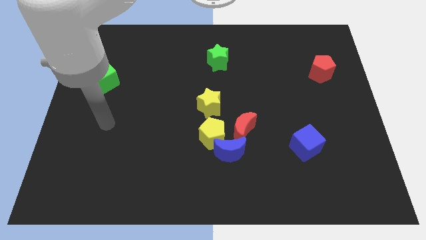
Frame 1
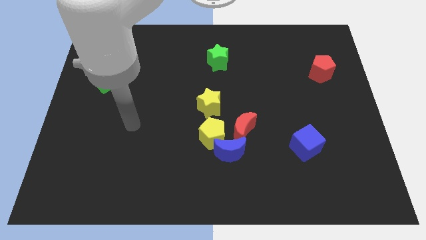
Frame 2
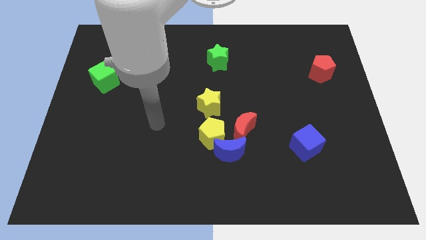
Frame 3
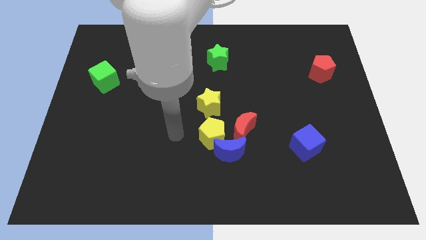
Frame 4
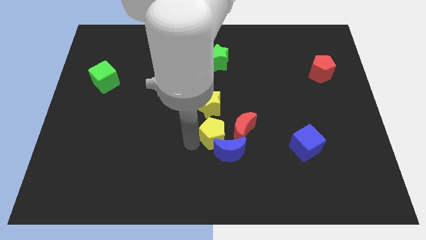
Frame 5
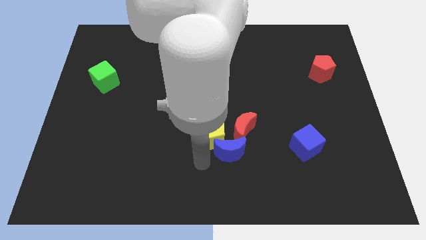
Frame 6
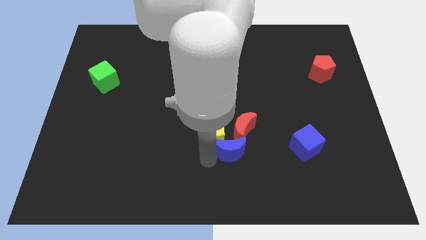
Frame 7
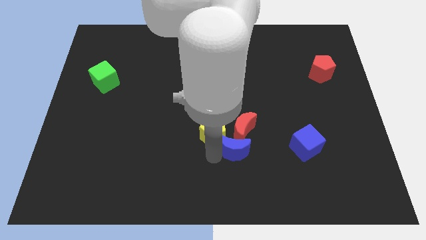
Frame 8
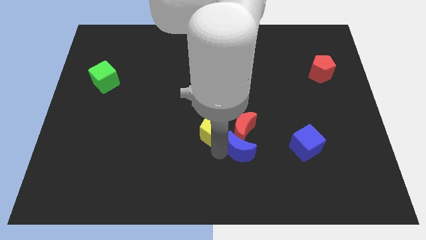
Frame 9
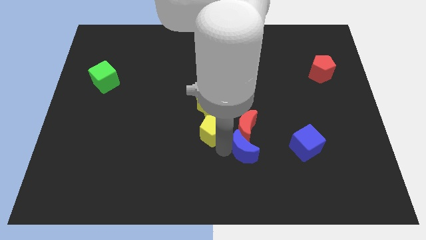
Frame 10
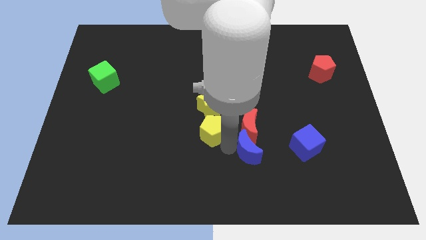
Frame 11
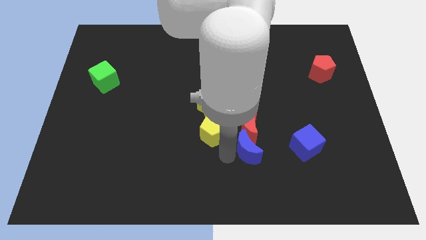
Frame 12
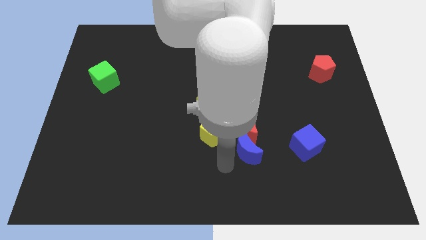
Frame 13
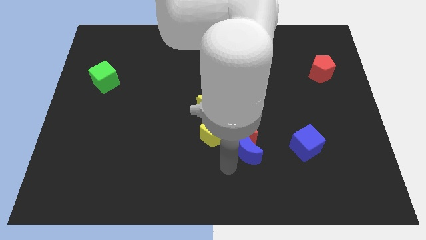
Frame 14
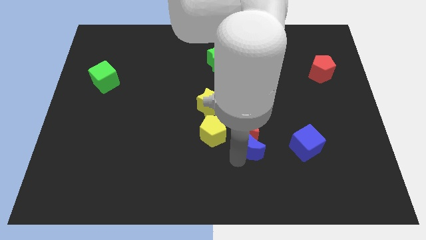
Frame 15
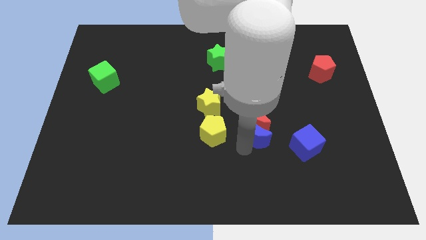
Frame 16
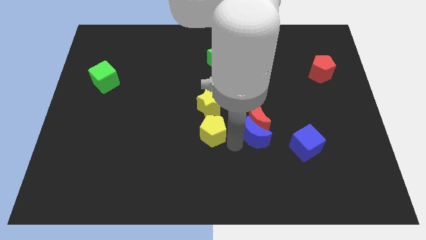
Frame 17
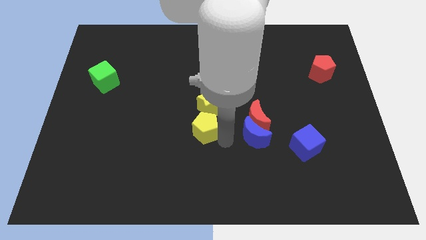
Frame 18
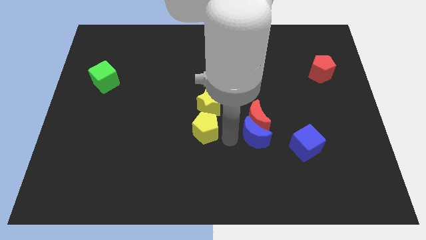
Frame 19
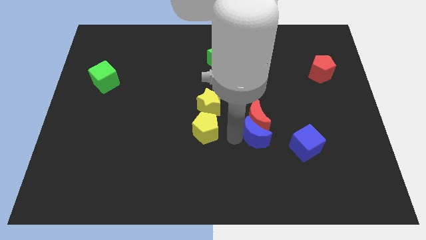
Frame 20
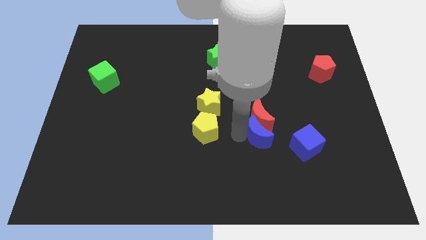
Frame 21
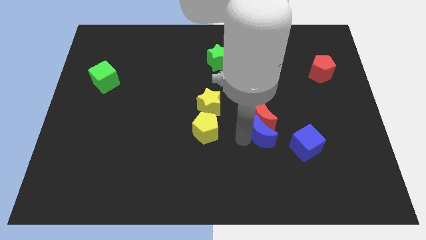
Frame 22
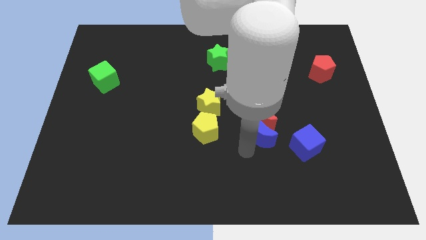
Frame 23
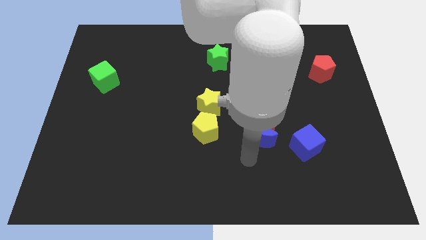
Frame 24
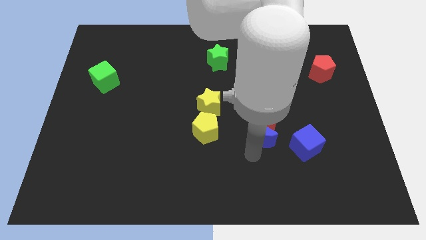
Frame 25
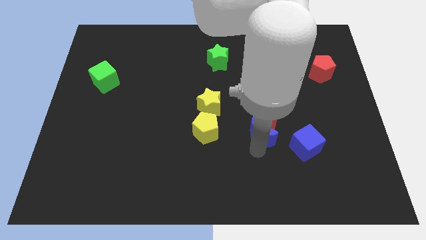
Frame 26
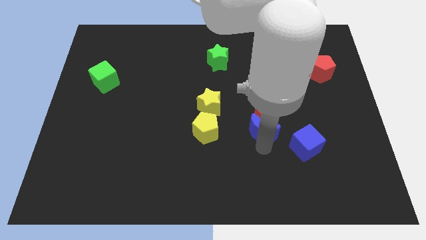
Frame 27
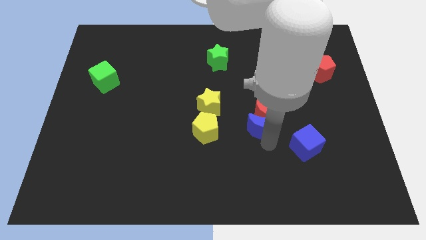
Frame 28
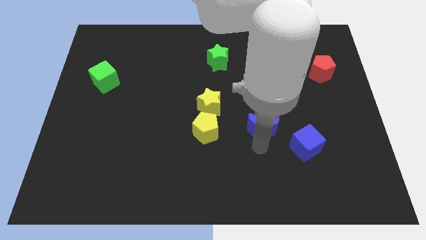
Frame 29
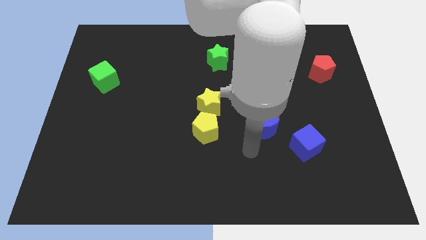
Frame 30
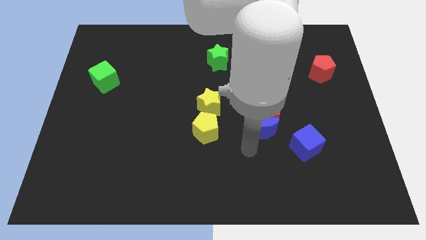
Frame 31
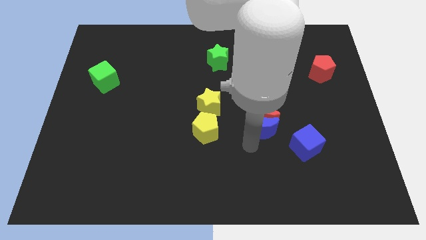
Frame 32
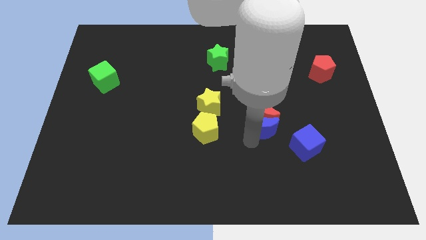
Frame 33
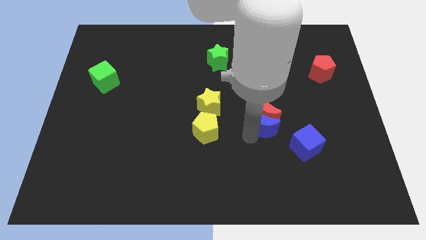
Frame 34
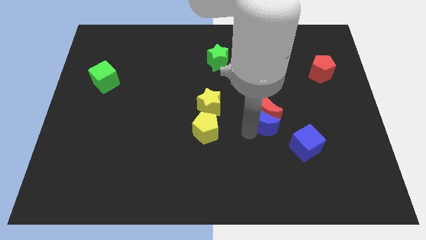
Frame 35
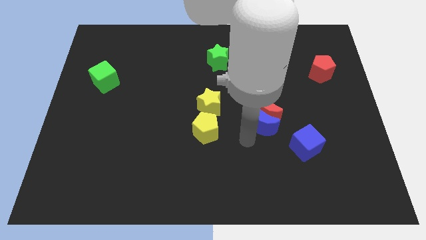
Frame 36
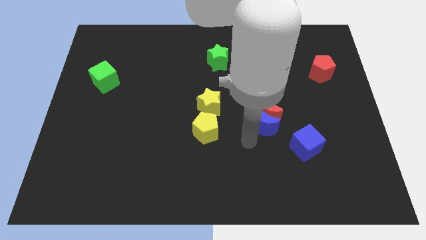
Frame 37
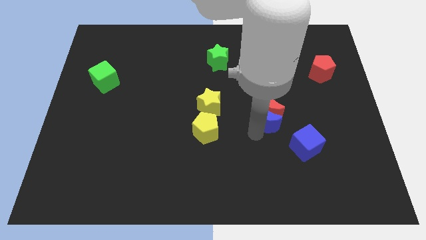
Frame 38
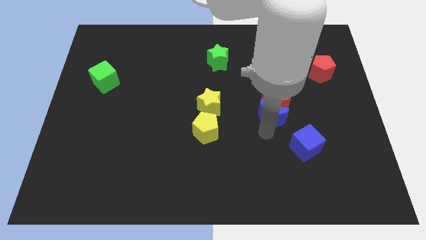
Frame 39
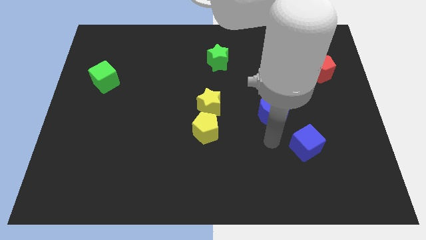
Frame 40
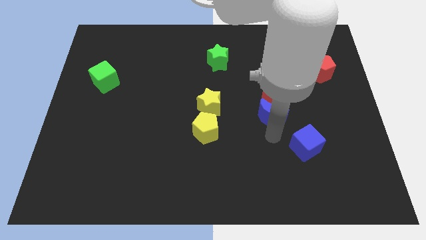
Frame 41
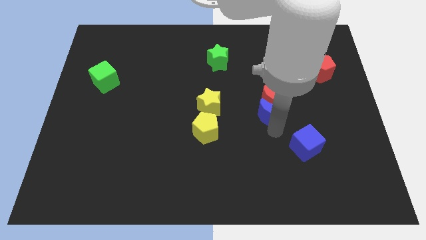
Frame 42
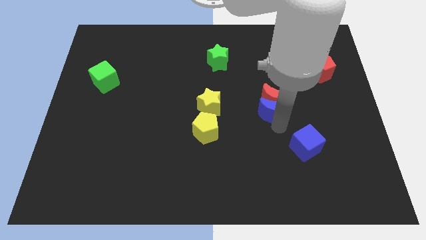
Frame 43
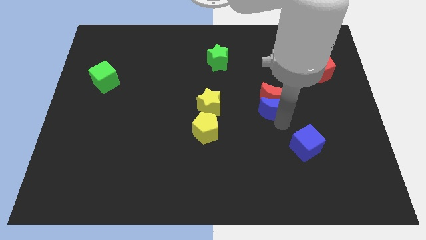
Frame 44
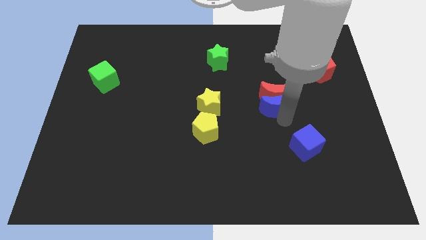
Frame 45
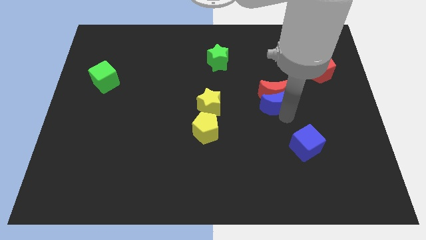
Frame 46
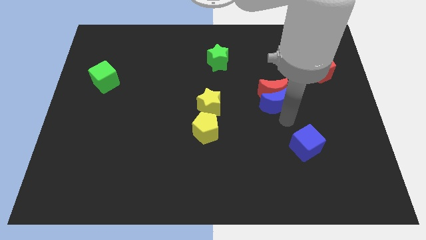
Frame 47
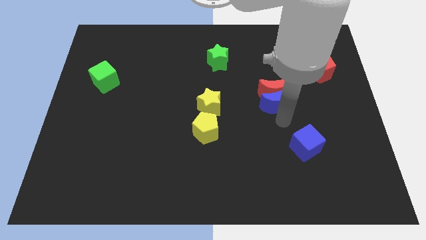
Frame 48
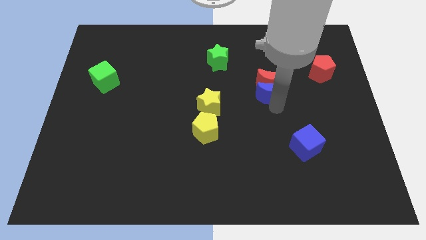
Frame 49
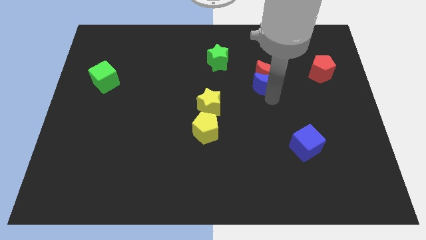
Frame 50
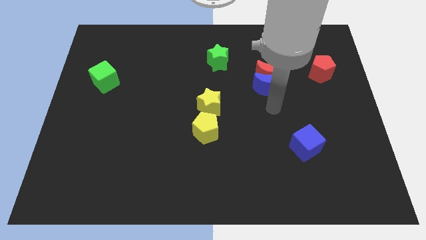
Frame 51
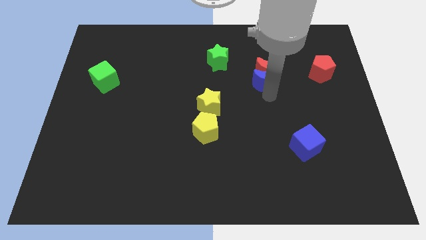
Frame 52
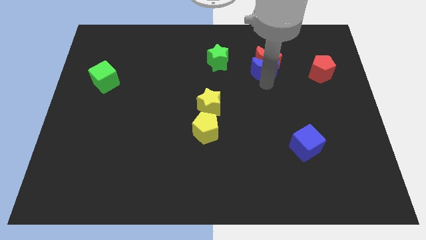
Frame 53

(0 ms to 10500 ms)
move the blue moon to the right side of the green star

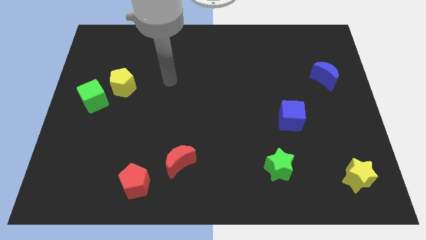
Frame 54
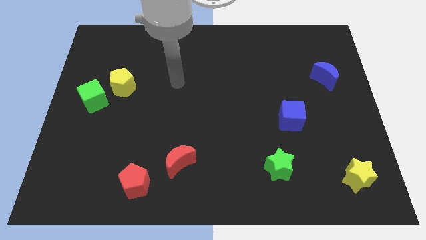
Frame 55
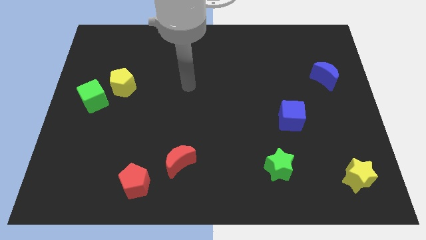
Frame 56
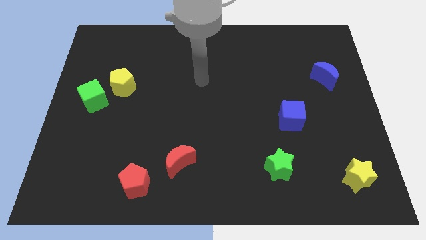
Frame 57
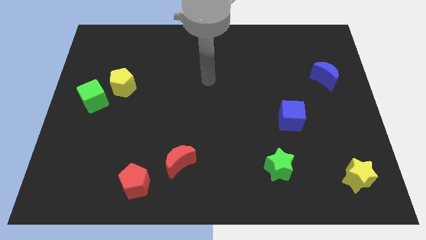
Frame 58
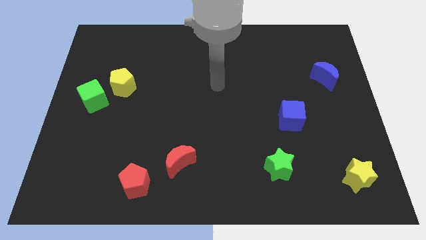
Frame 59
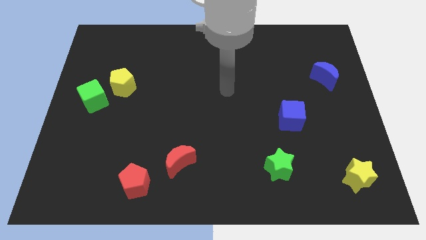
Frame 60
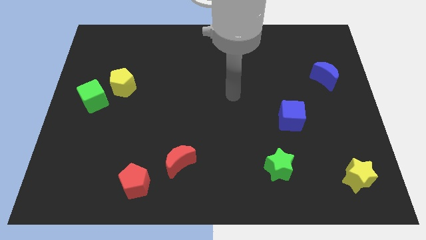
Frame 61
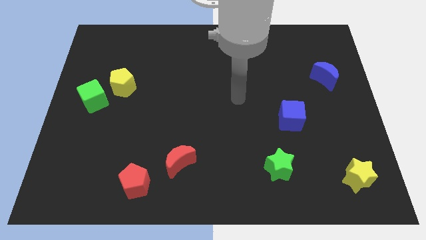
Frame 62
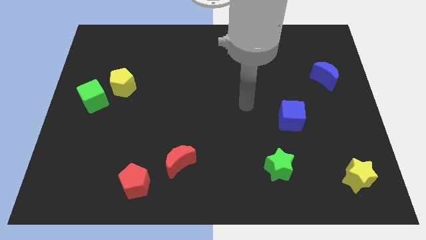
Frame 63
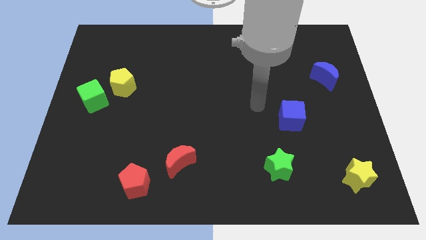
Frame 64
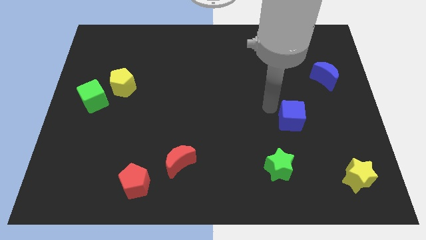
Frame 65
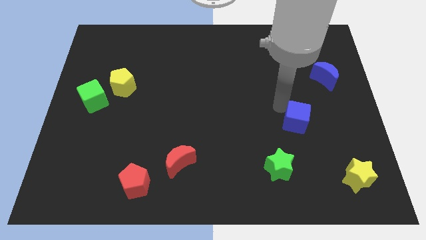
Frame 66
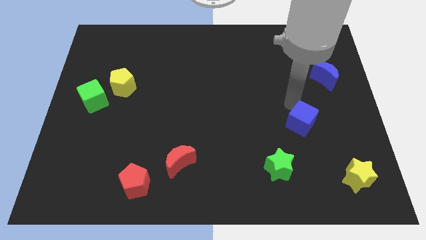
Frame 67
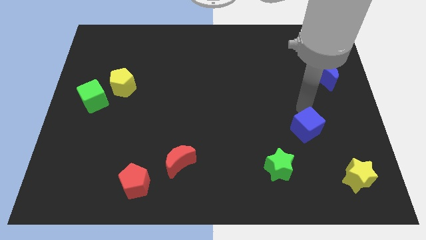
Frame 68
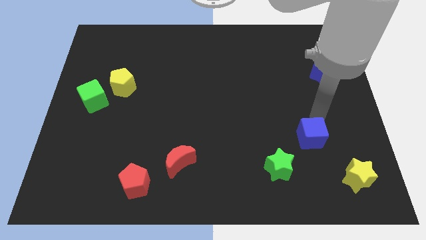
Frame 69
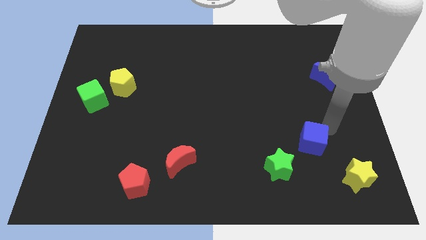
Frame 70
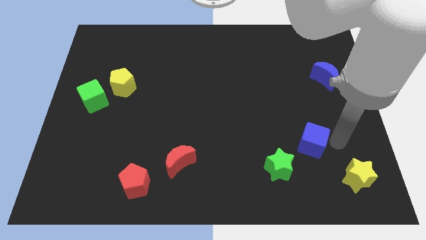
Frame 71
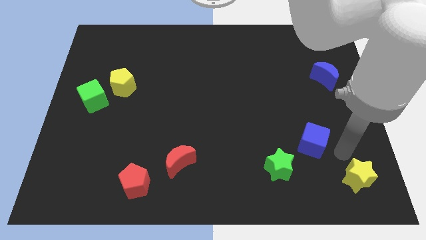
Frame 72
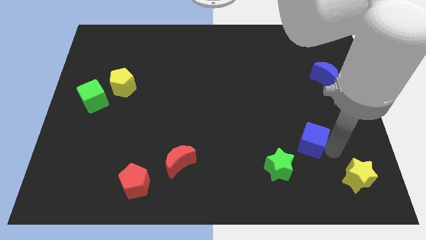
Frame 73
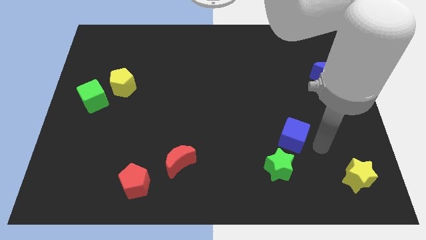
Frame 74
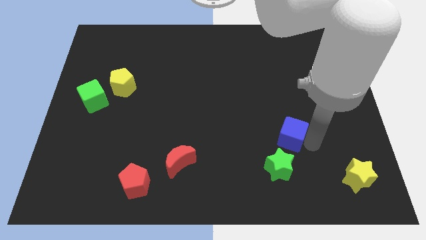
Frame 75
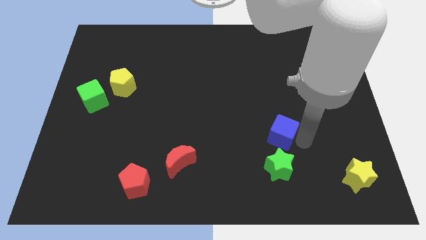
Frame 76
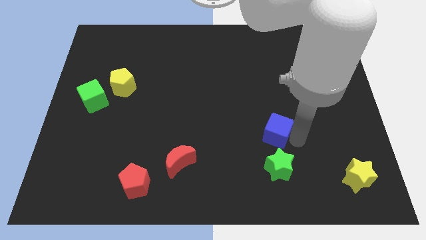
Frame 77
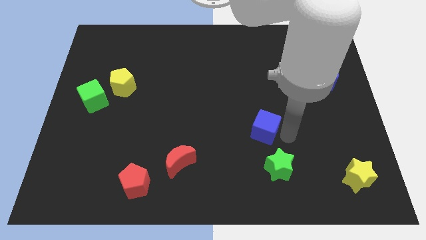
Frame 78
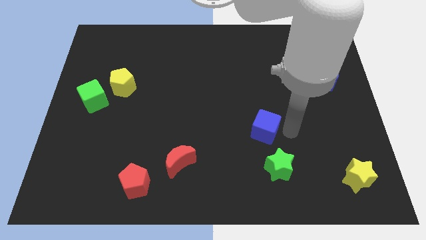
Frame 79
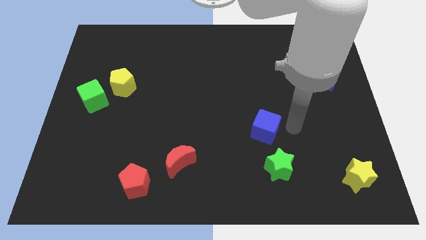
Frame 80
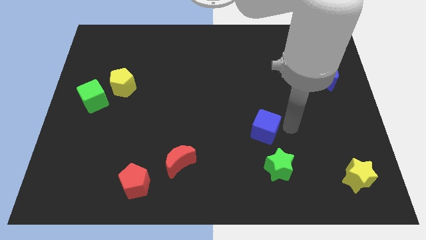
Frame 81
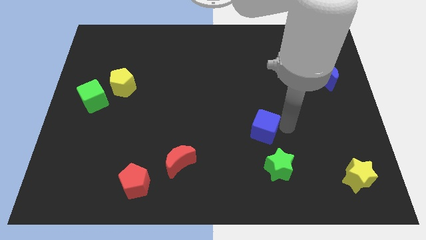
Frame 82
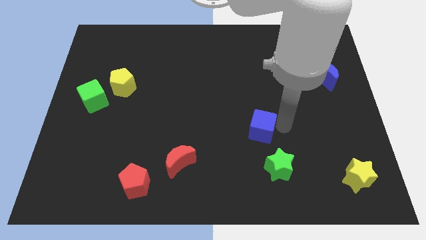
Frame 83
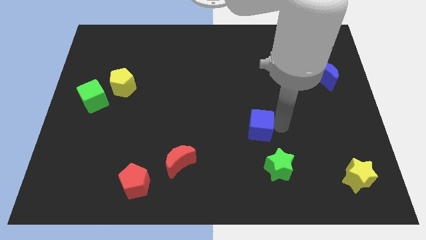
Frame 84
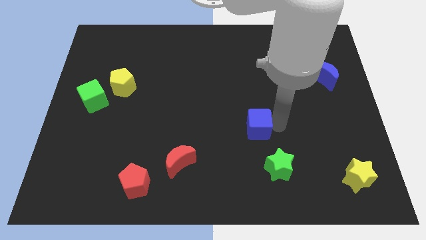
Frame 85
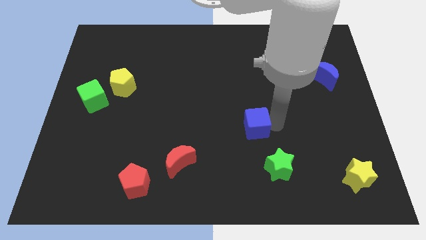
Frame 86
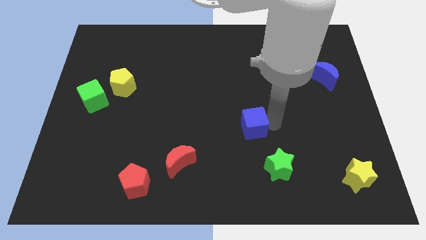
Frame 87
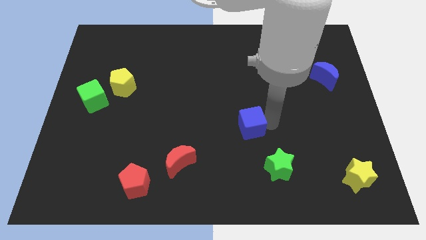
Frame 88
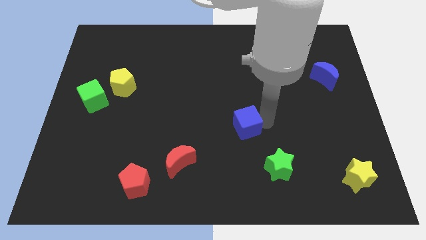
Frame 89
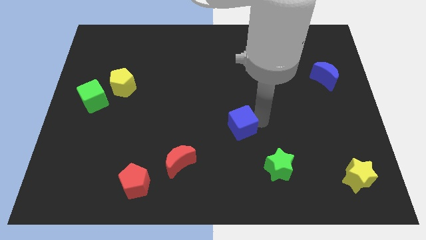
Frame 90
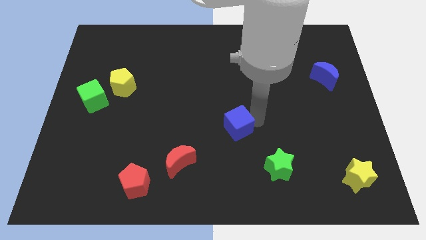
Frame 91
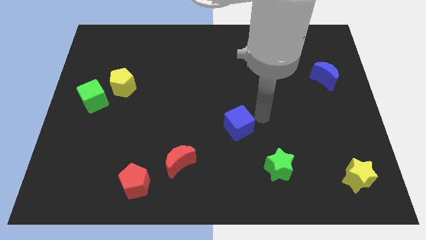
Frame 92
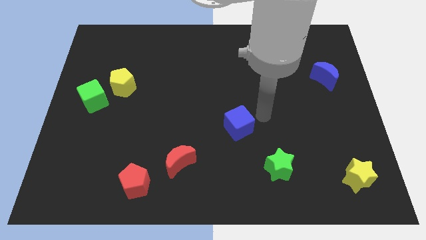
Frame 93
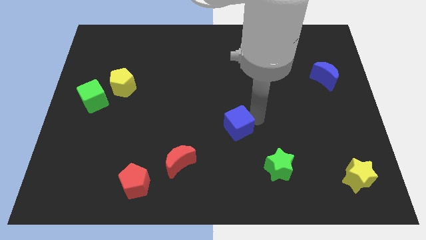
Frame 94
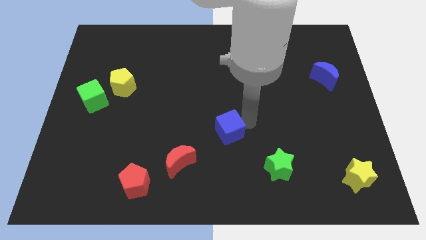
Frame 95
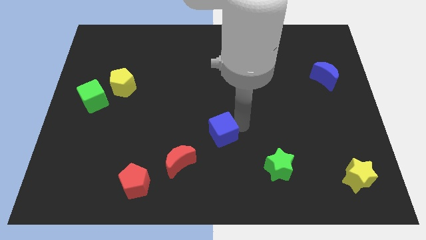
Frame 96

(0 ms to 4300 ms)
slide the blue cube to the top right side of the red moon
